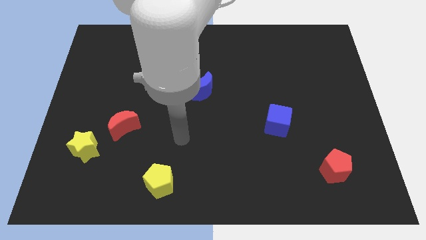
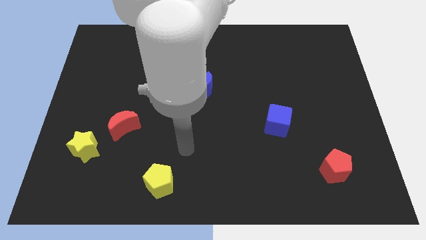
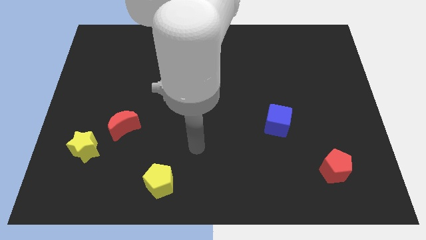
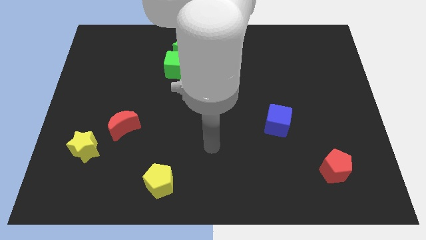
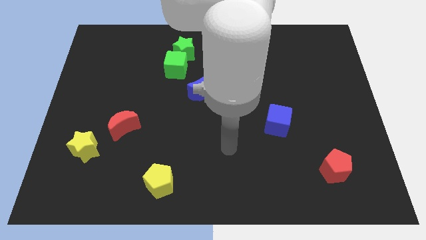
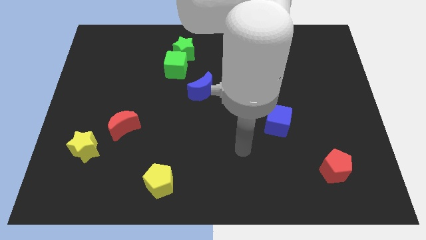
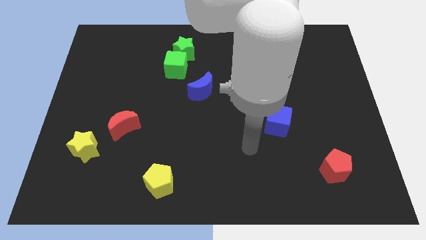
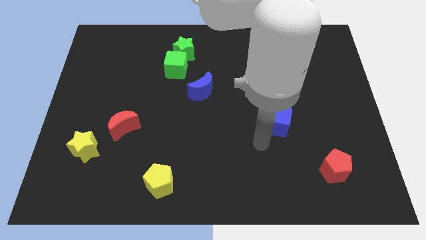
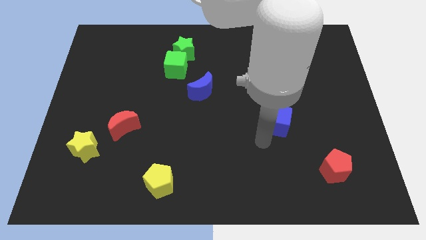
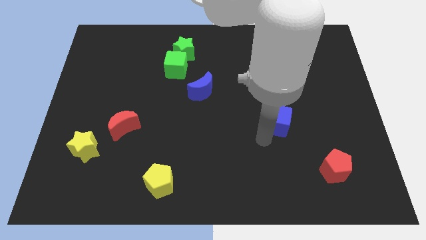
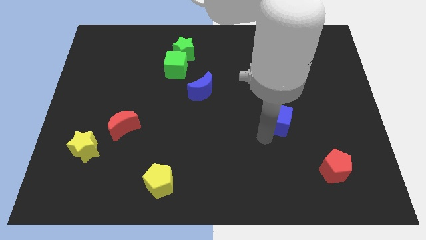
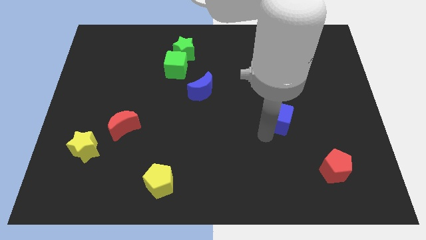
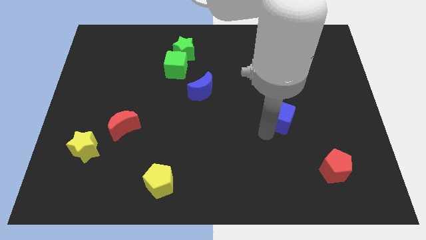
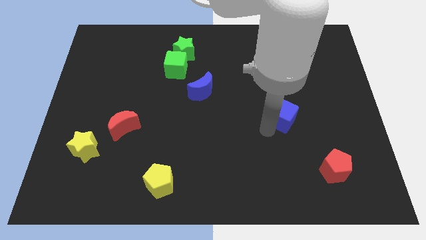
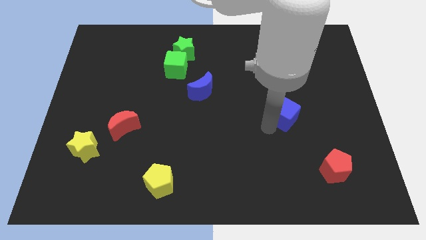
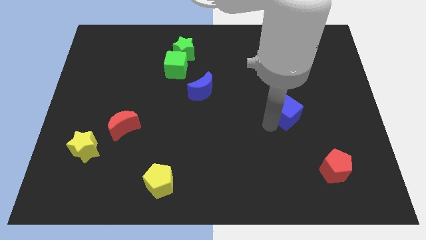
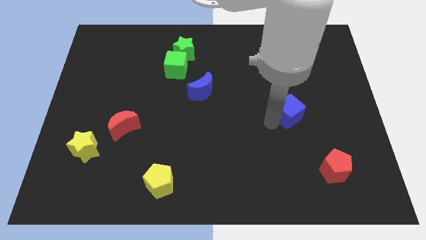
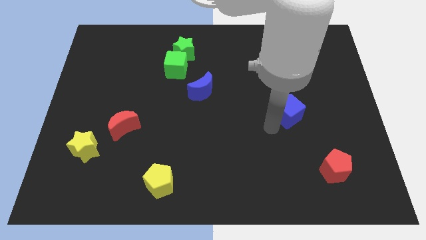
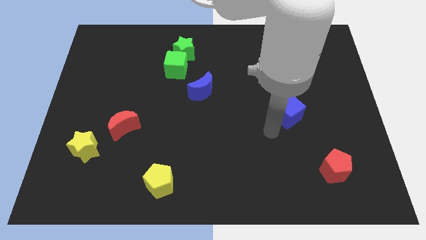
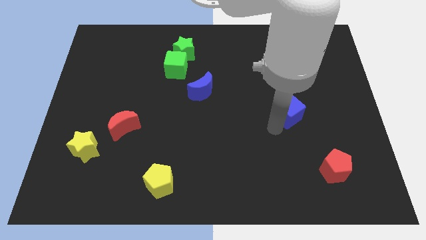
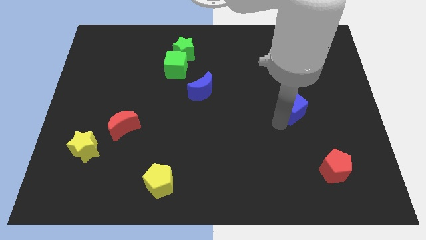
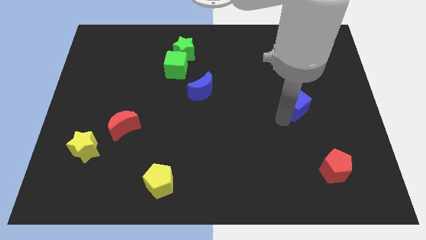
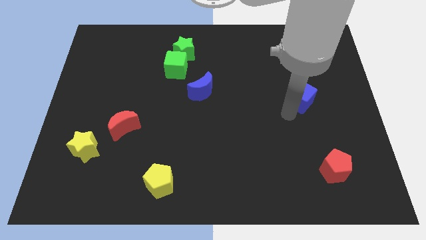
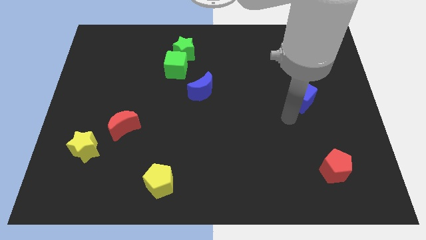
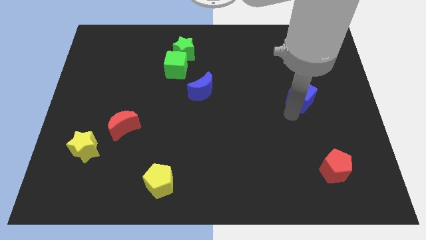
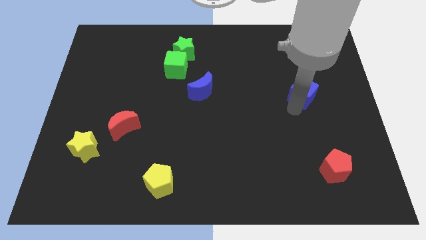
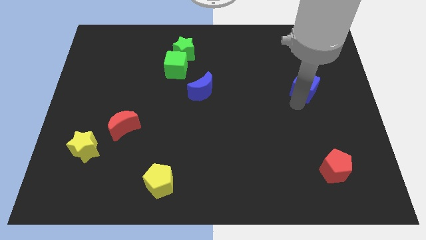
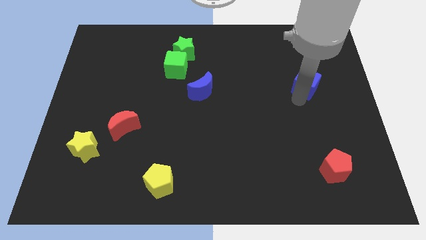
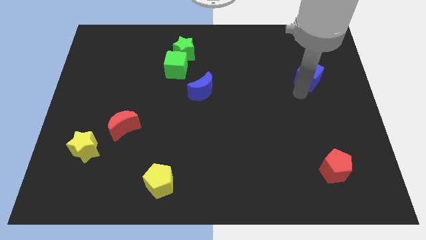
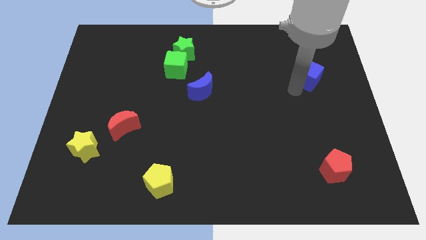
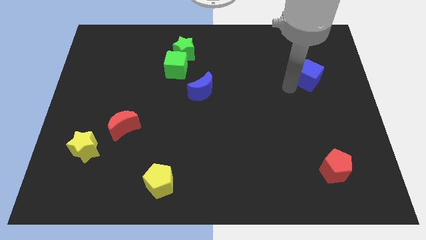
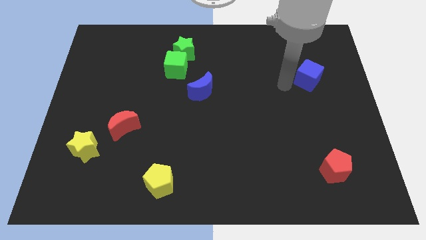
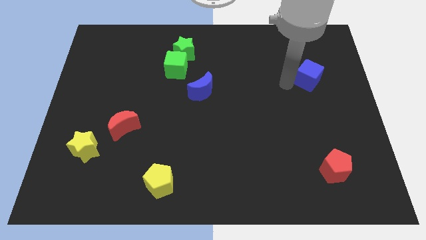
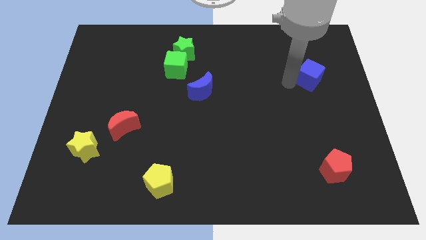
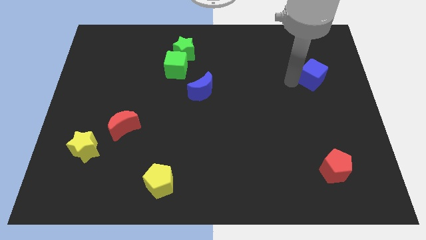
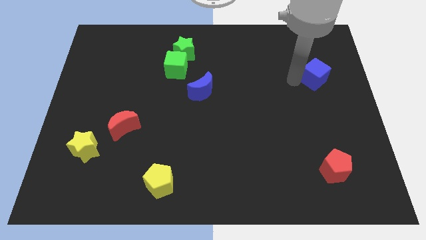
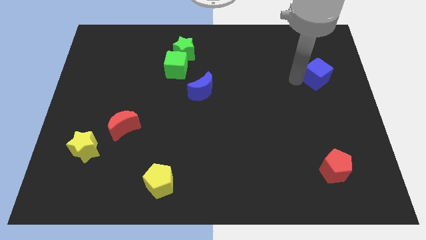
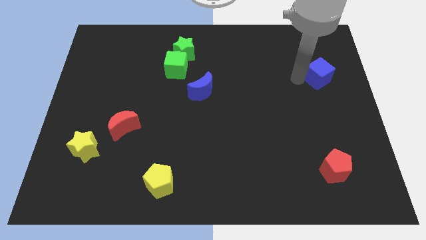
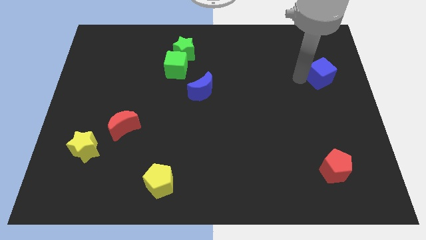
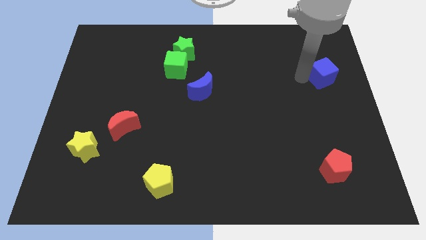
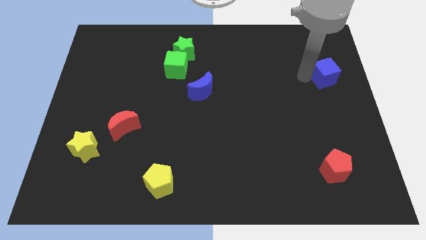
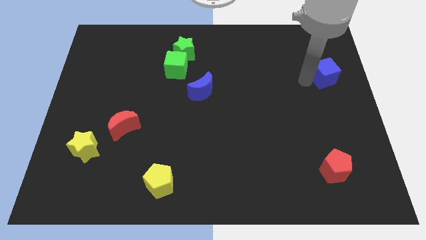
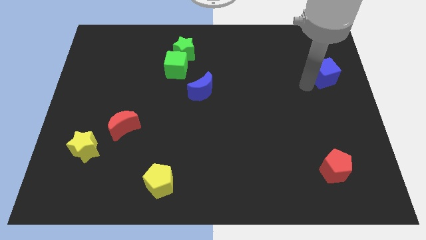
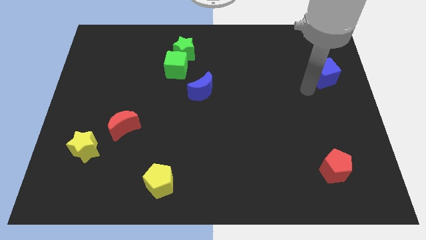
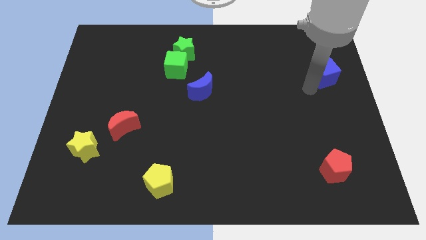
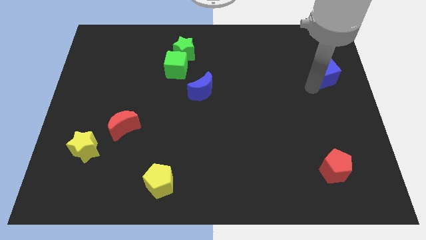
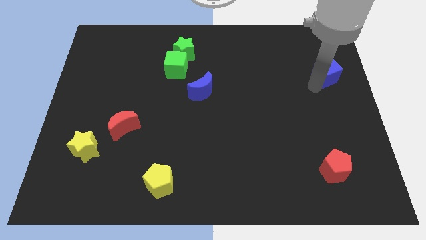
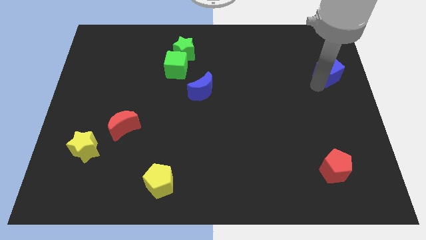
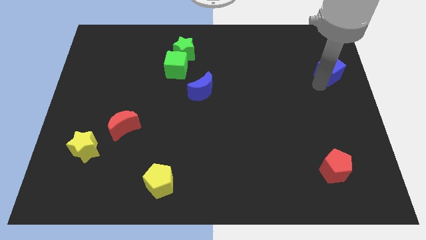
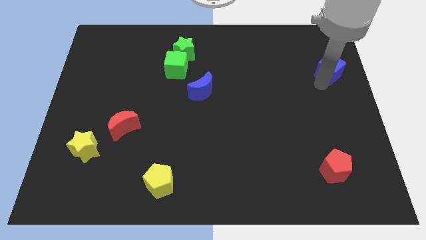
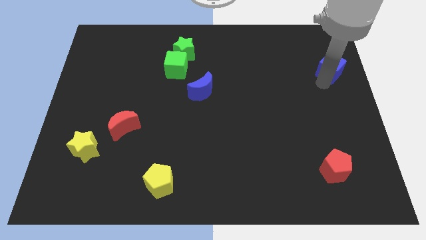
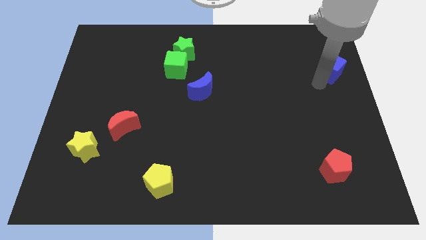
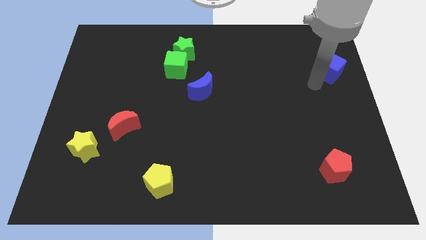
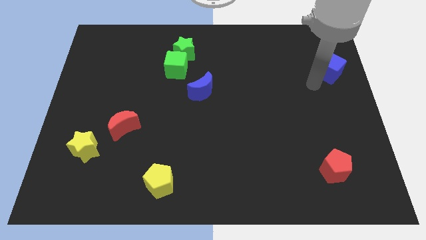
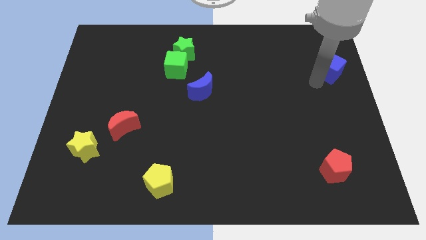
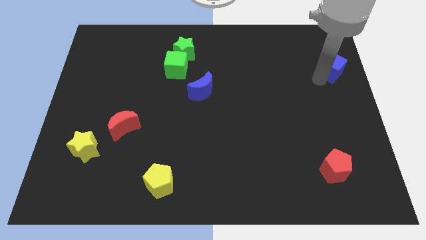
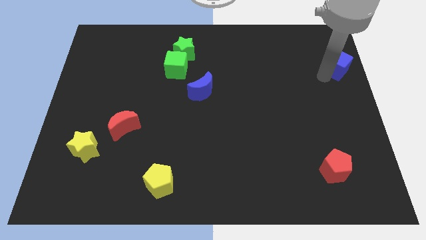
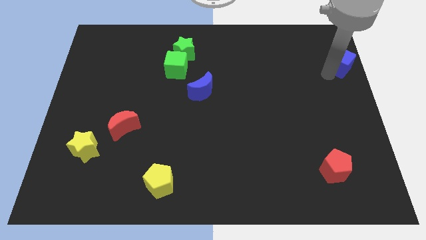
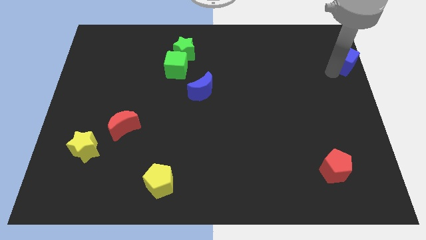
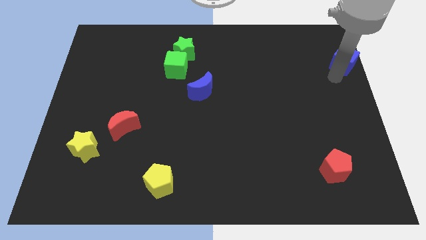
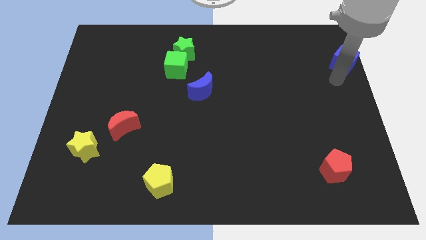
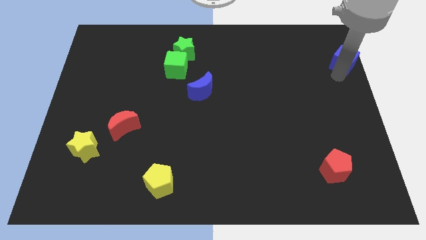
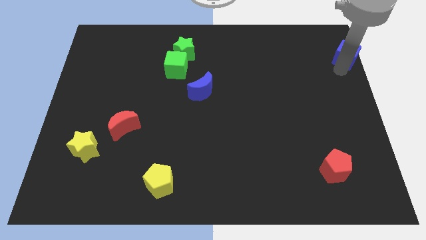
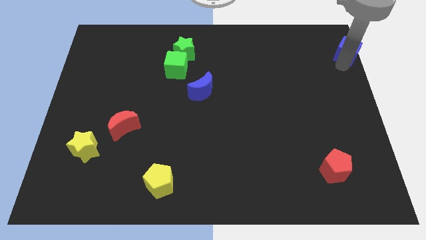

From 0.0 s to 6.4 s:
push the blue cube to the top right of the board
